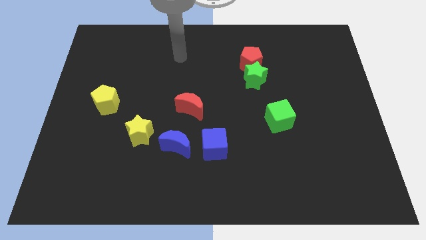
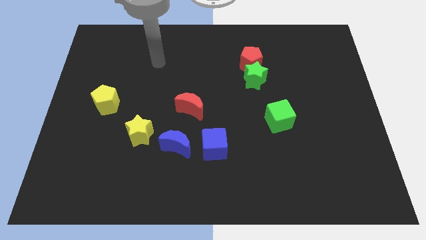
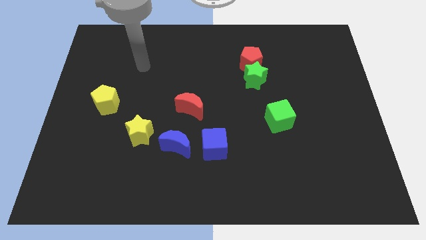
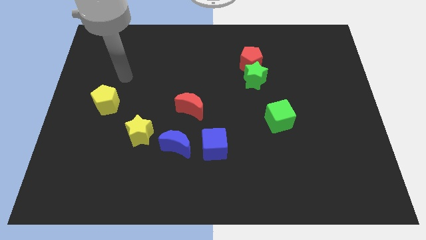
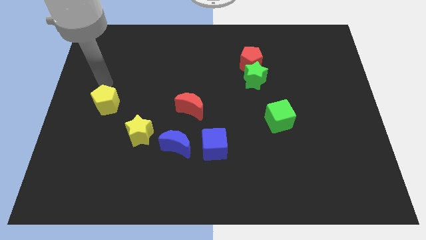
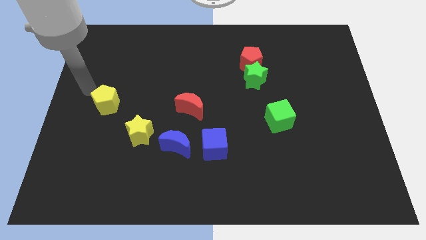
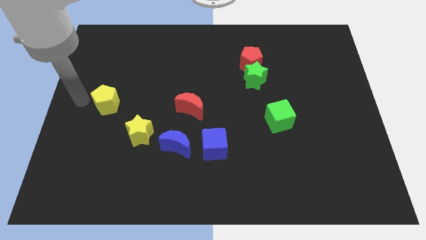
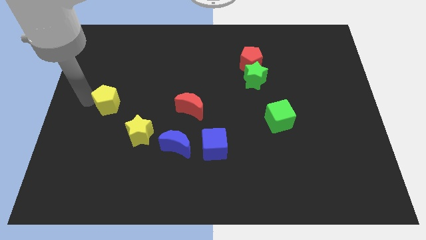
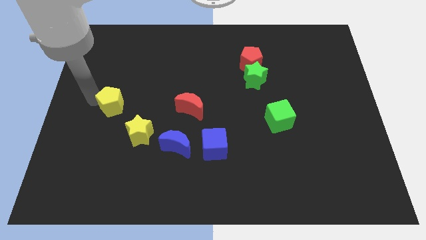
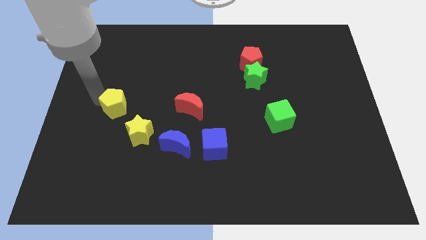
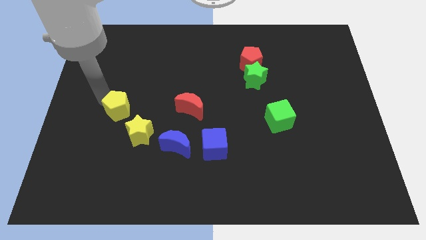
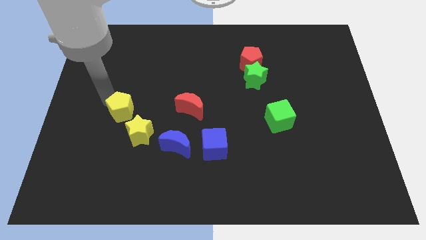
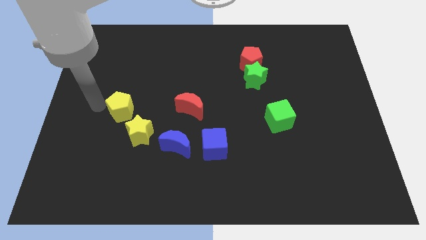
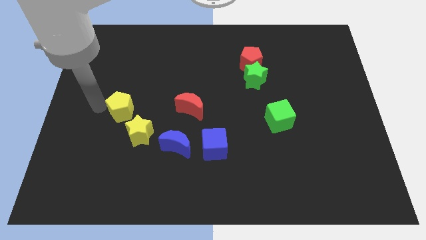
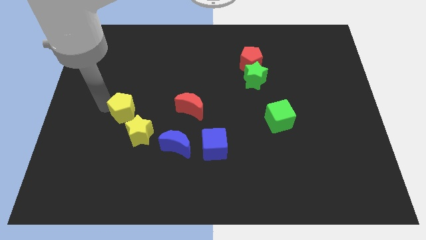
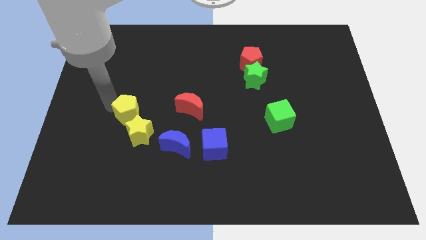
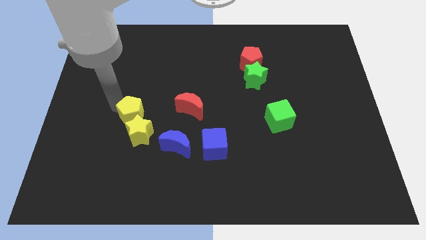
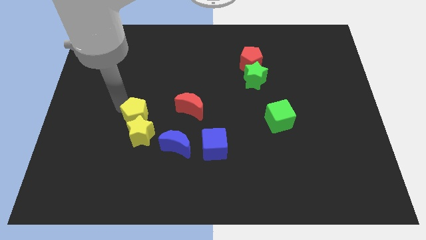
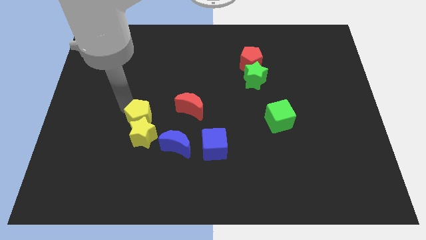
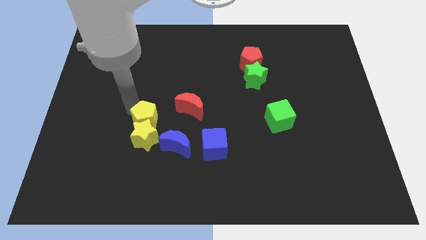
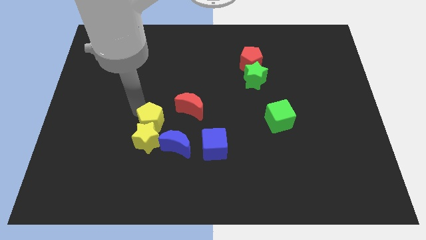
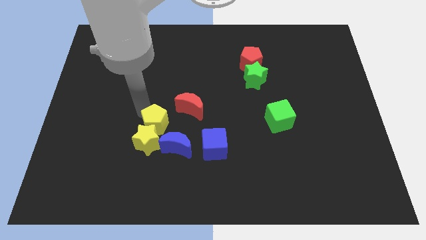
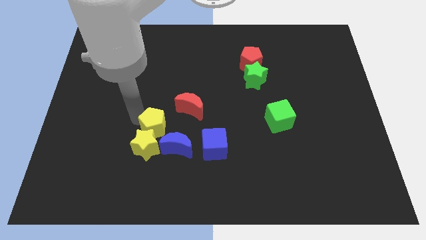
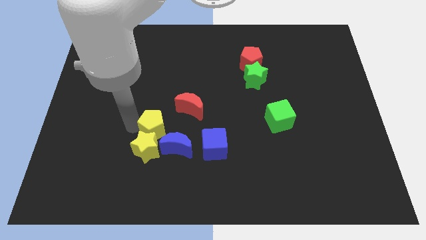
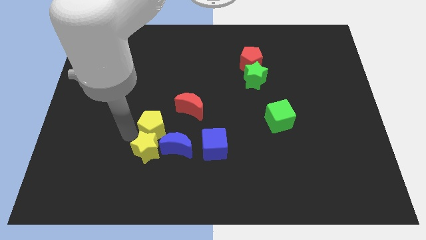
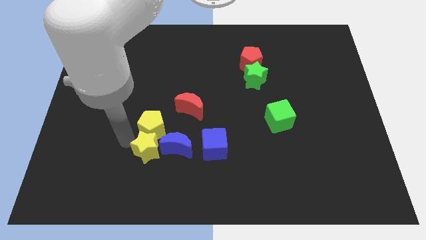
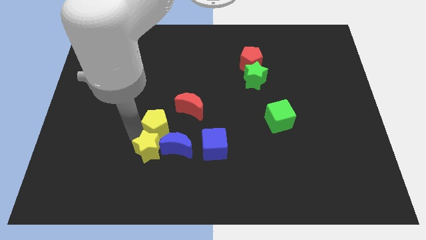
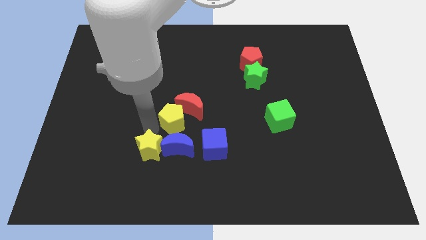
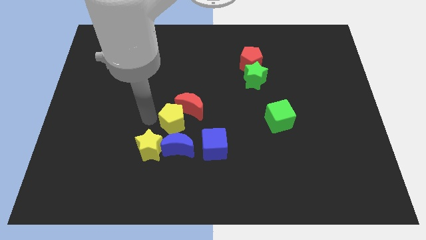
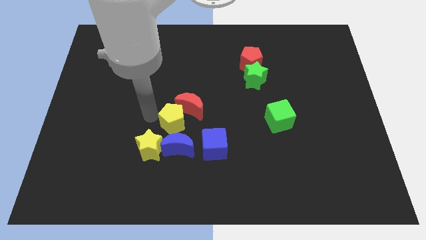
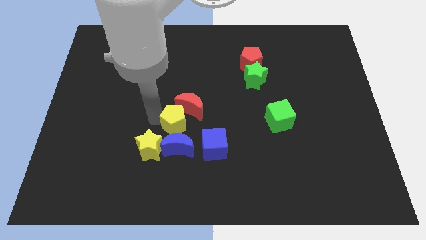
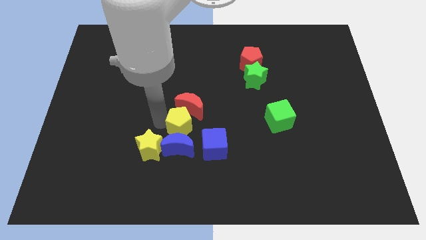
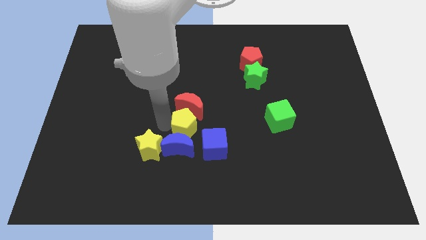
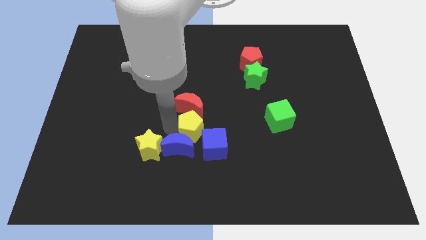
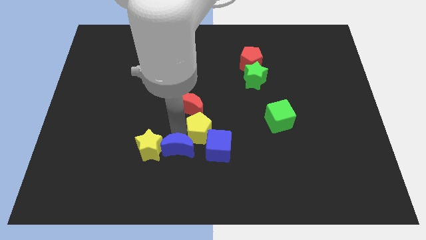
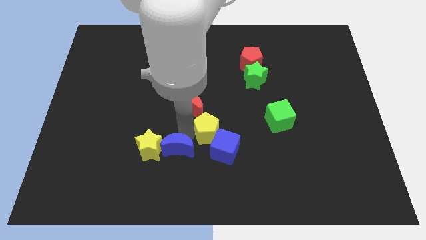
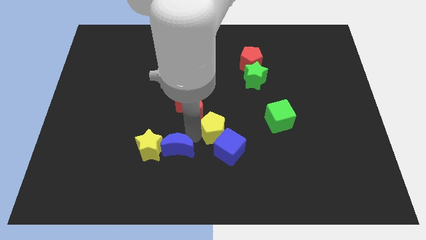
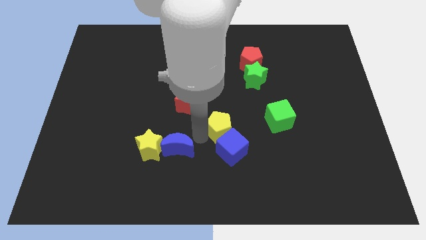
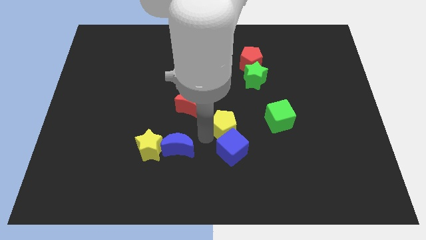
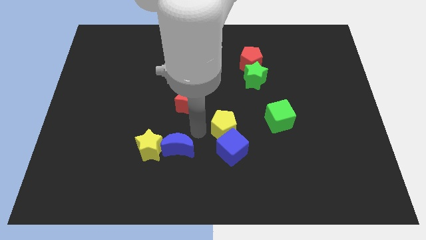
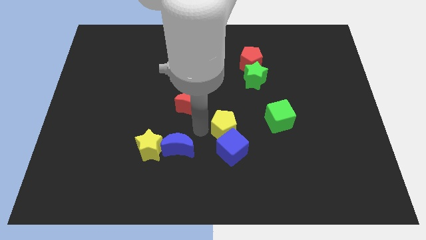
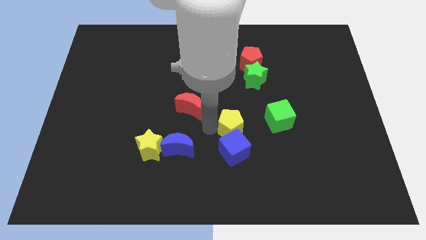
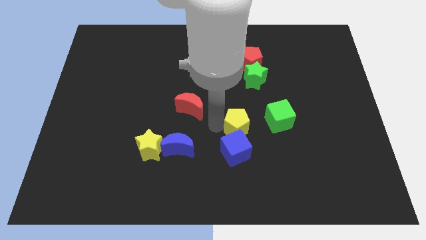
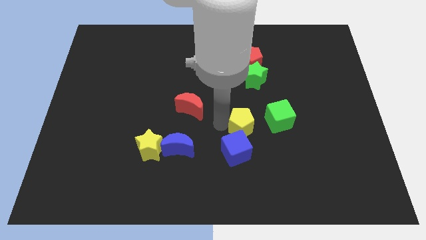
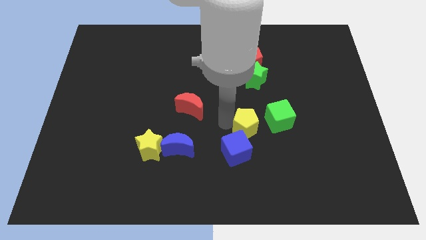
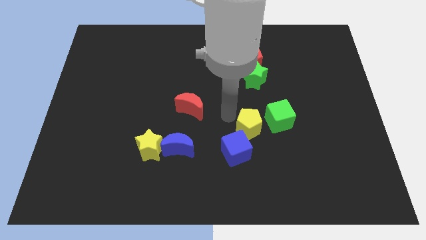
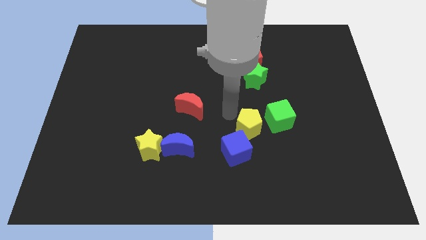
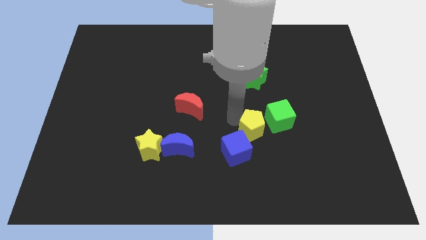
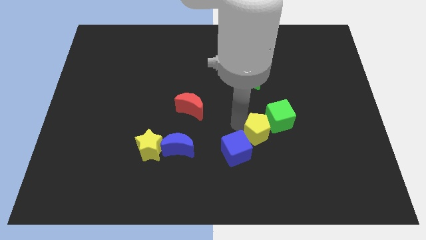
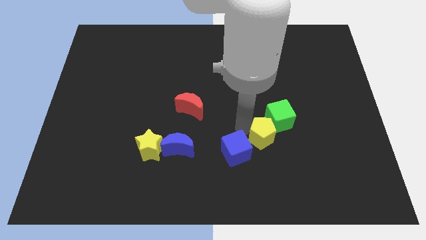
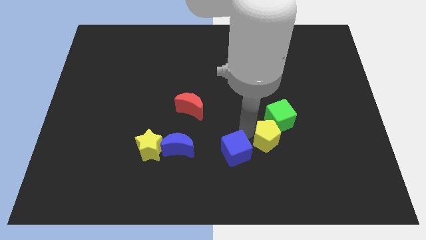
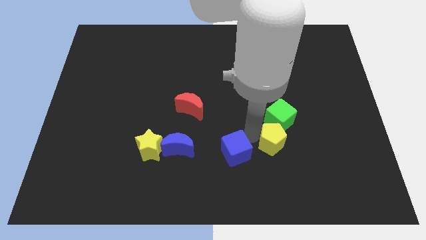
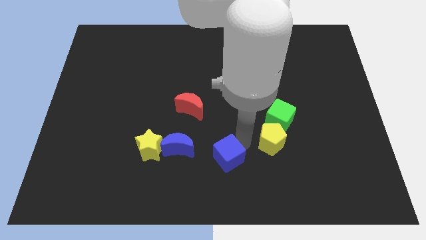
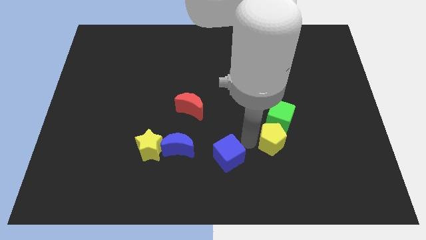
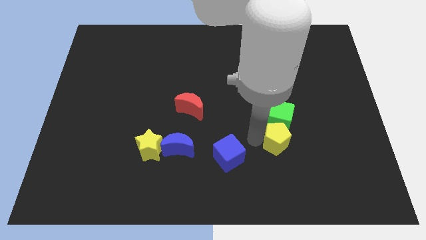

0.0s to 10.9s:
put the yellow pentagon diagonally down and to the right of the green cube

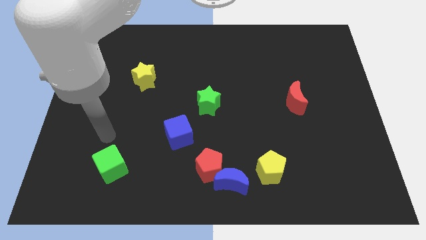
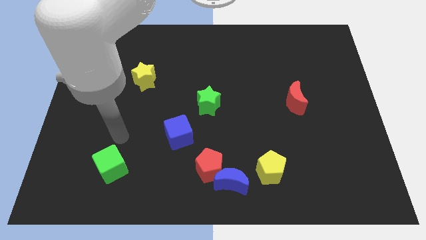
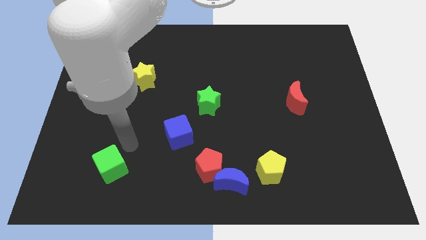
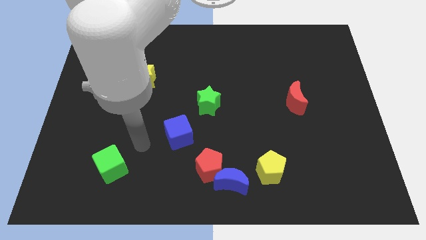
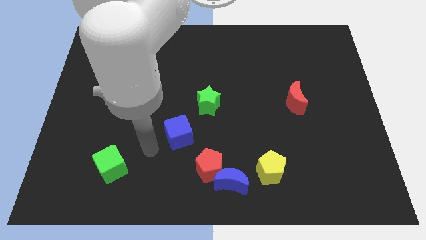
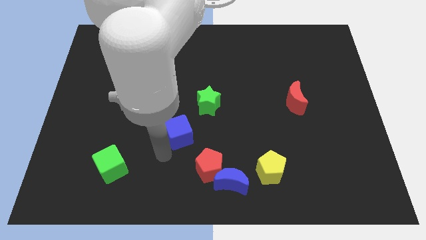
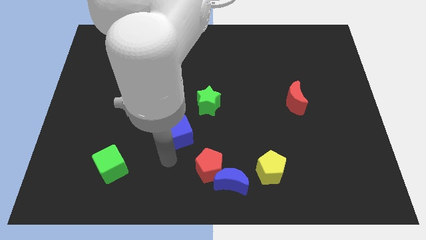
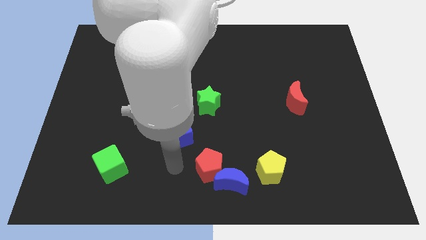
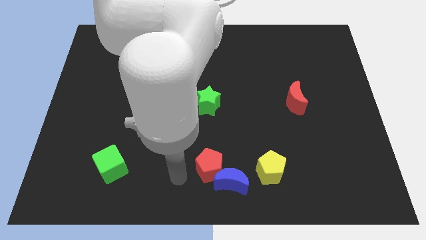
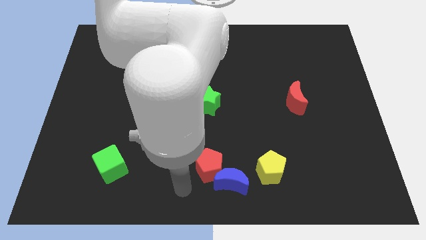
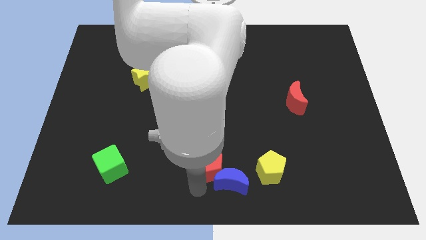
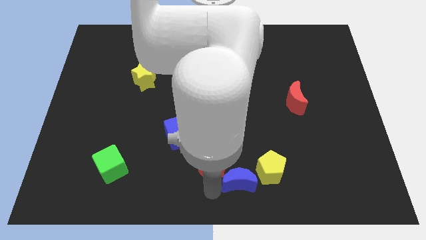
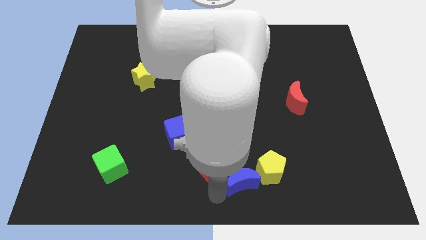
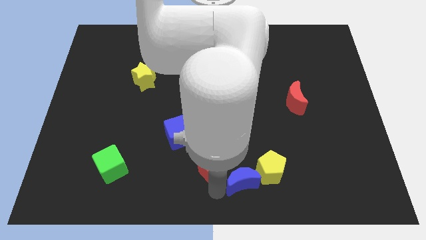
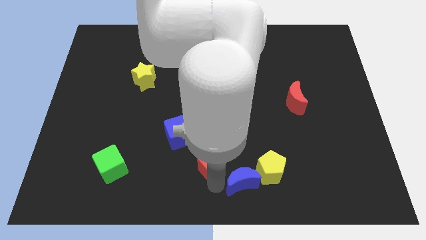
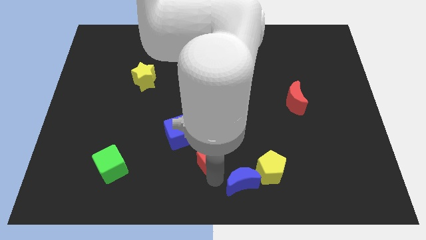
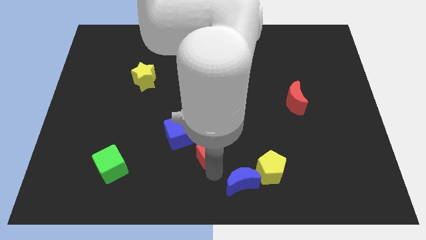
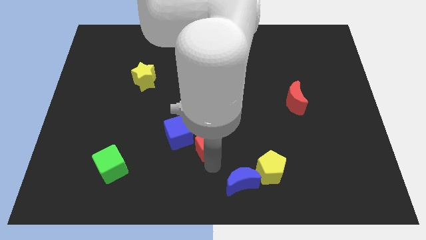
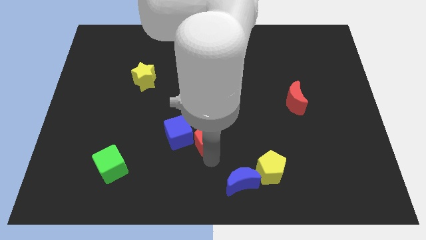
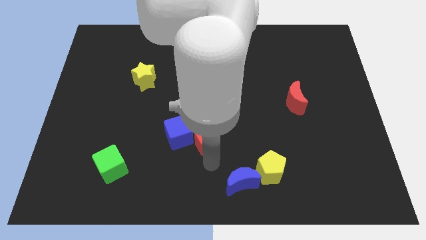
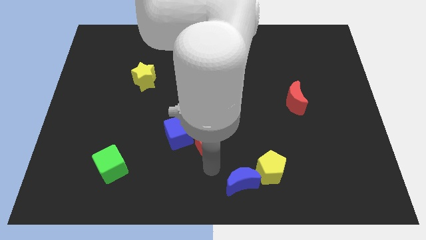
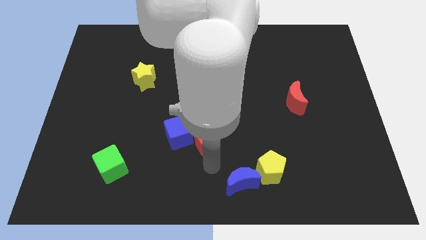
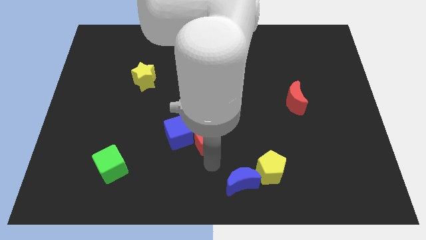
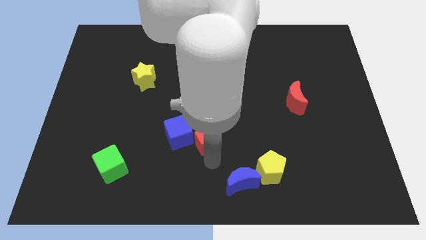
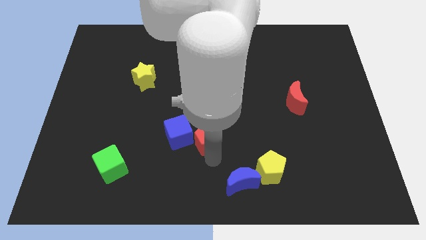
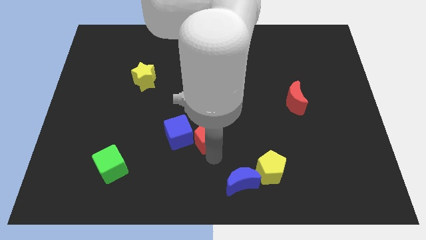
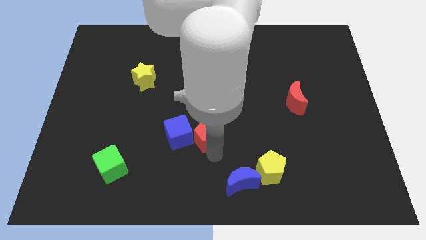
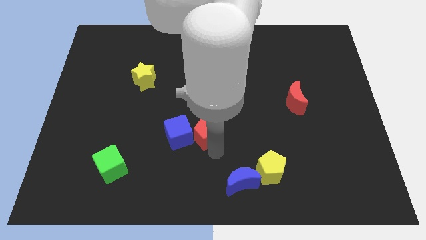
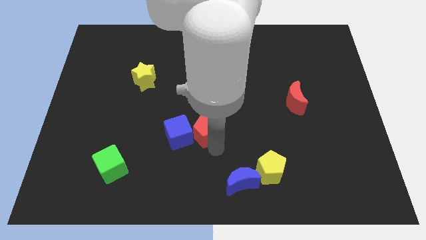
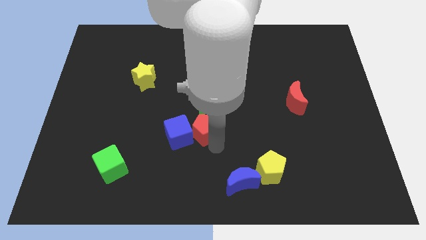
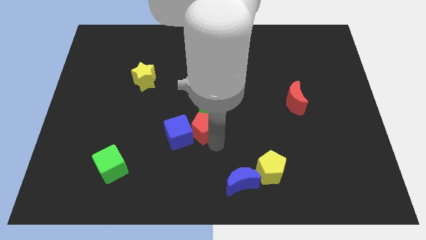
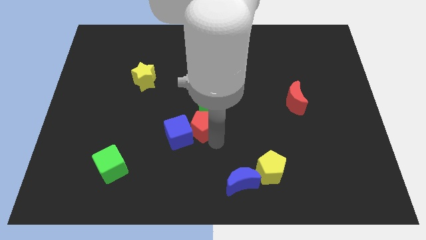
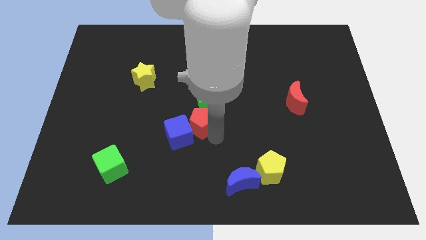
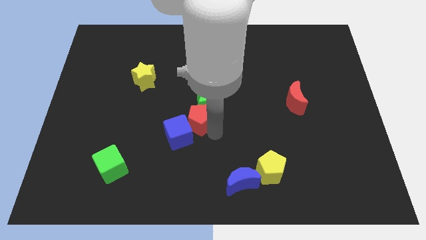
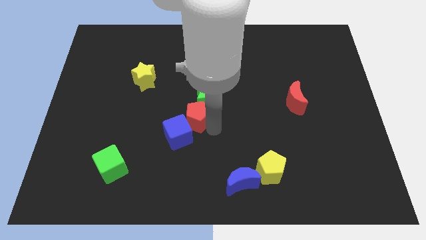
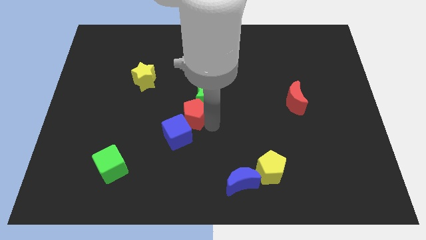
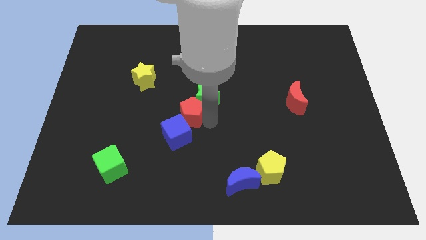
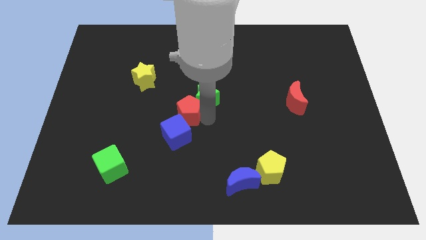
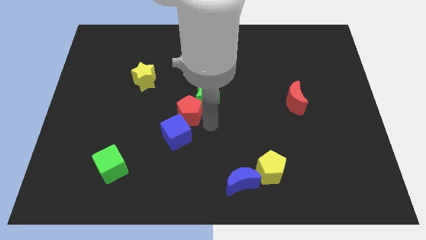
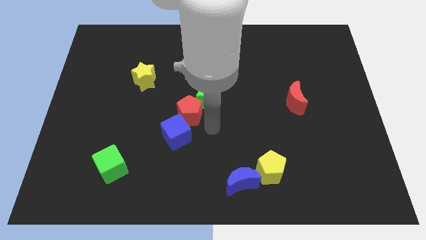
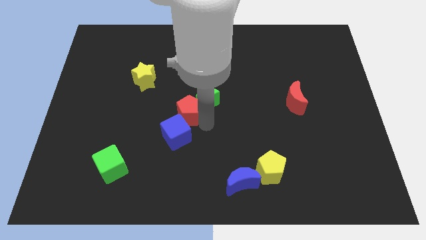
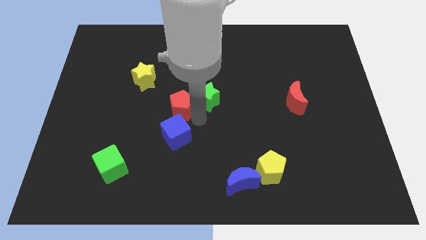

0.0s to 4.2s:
move the red pentagon diagonally down and to the right of the yellow star
